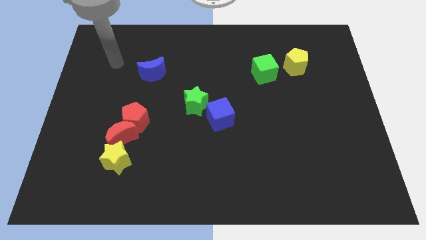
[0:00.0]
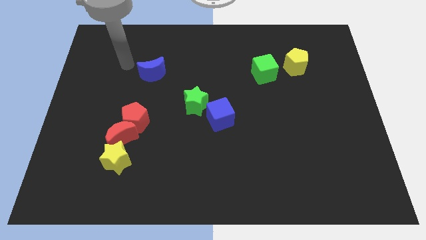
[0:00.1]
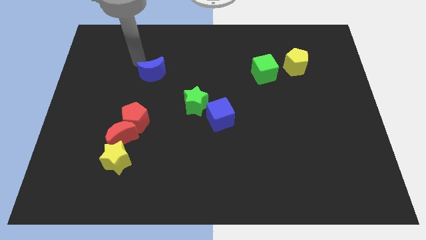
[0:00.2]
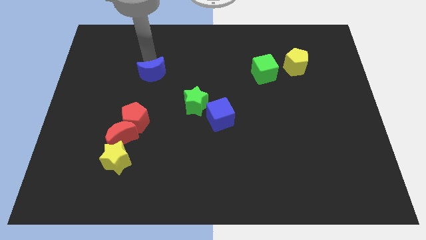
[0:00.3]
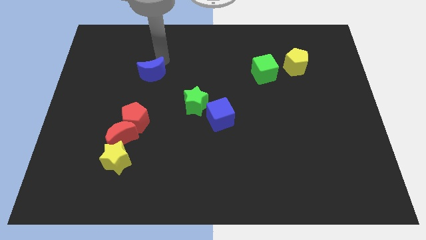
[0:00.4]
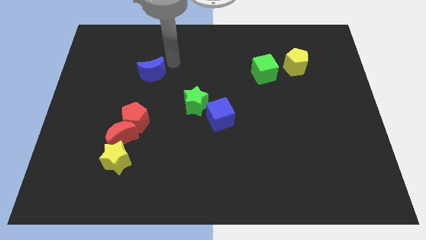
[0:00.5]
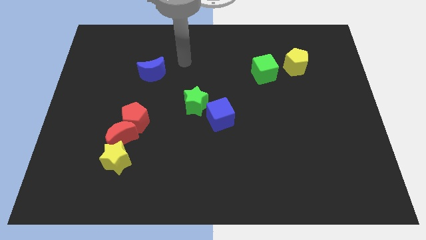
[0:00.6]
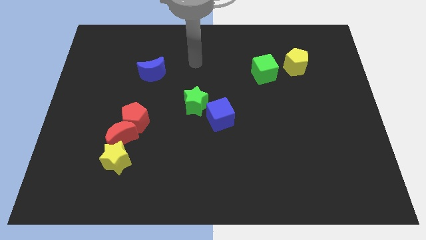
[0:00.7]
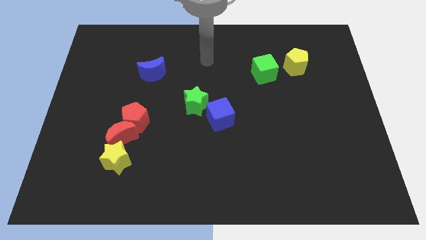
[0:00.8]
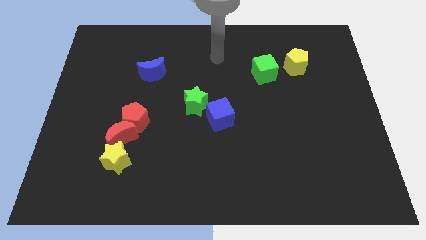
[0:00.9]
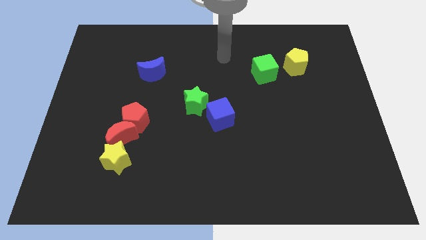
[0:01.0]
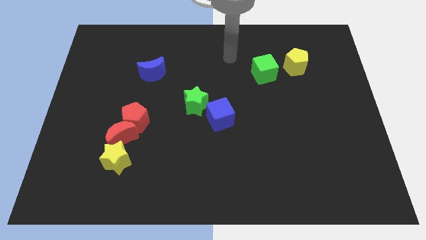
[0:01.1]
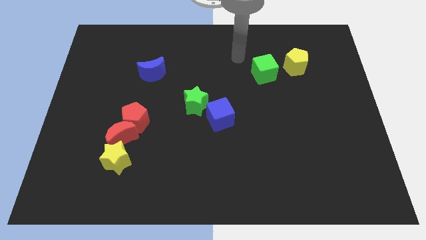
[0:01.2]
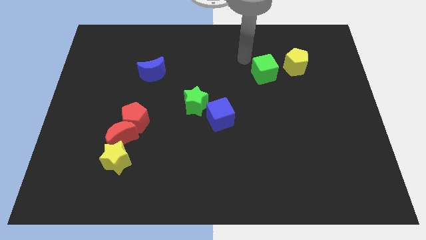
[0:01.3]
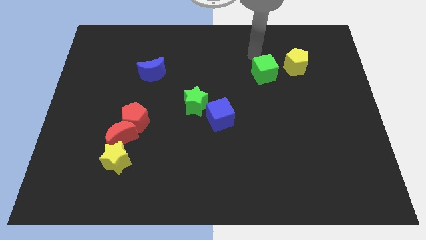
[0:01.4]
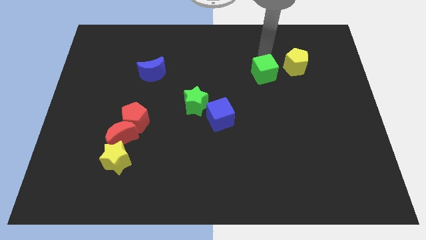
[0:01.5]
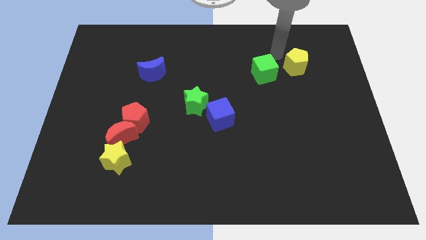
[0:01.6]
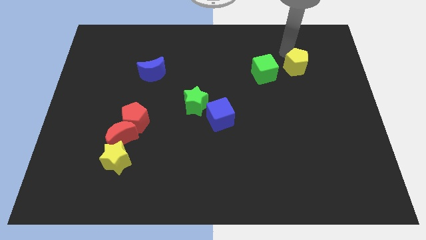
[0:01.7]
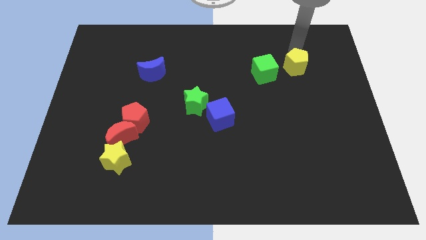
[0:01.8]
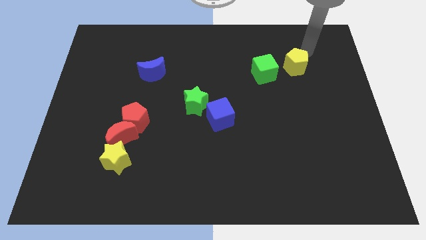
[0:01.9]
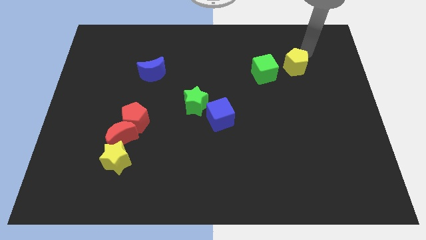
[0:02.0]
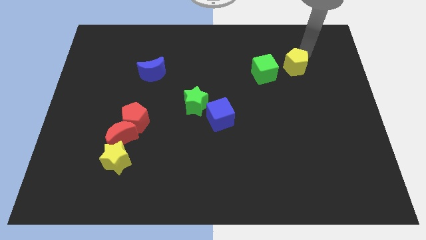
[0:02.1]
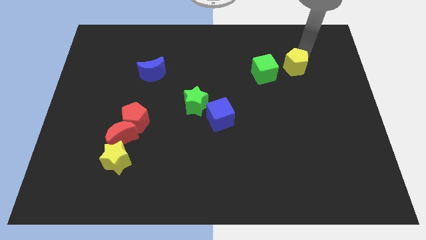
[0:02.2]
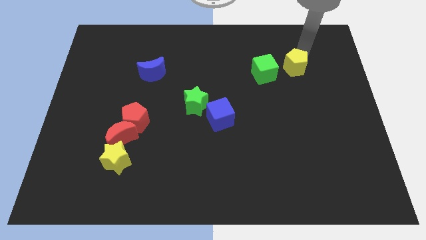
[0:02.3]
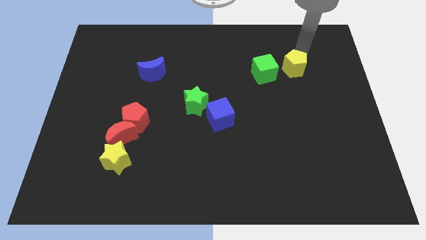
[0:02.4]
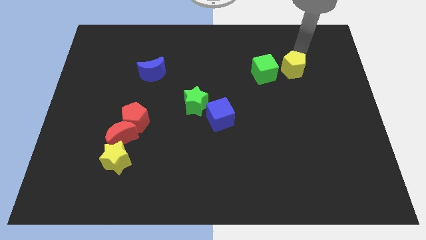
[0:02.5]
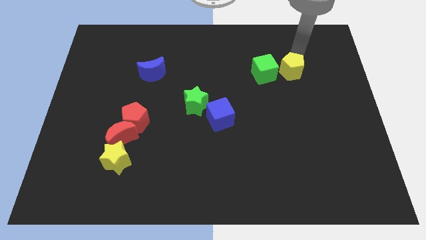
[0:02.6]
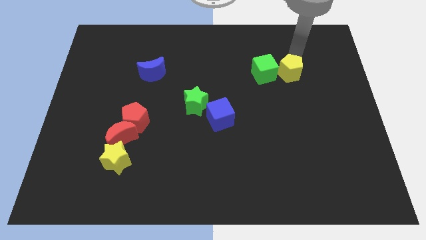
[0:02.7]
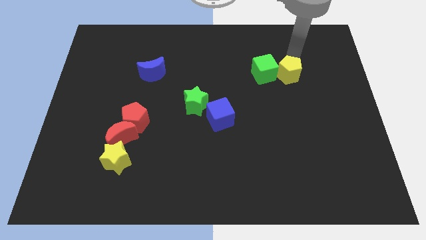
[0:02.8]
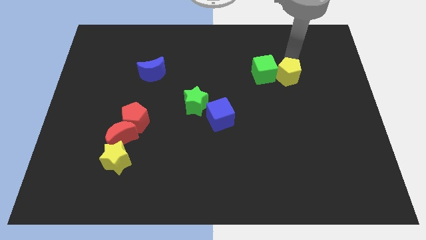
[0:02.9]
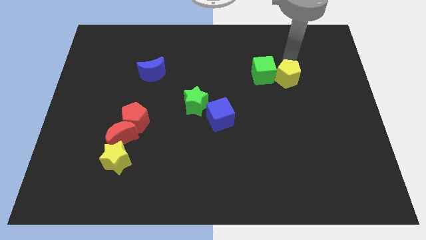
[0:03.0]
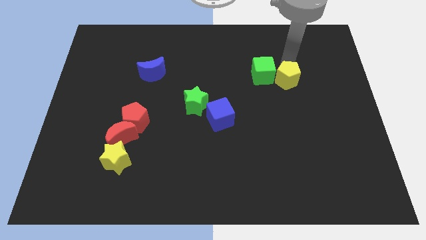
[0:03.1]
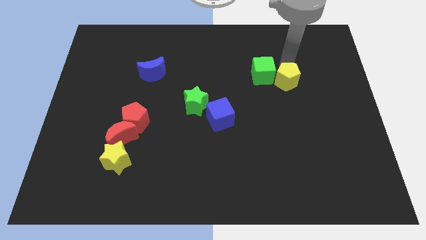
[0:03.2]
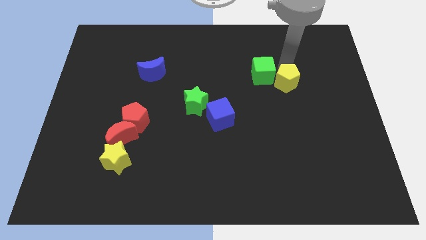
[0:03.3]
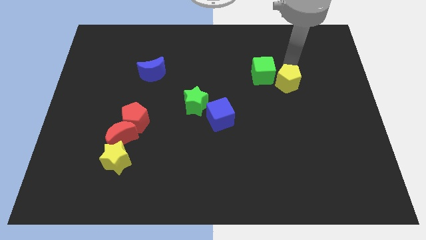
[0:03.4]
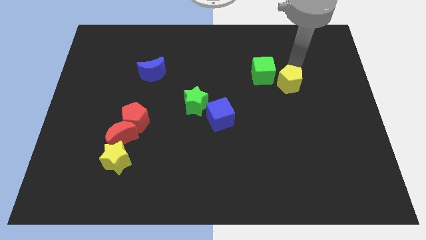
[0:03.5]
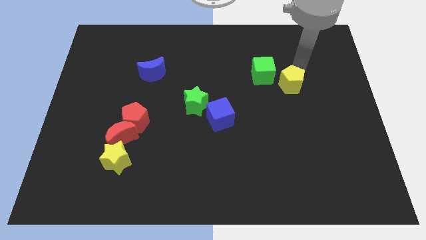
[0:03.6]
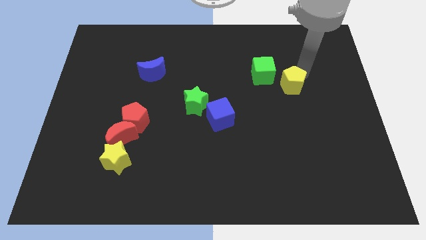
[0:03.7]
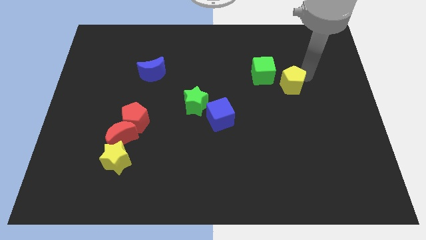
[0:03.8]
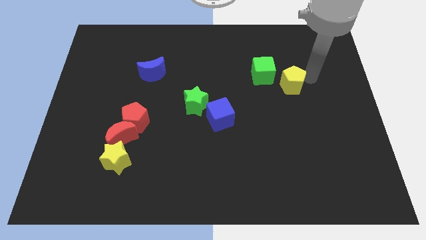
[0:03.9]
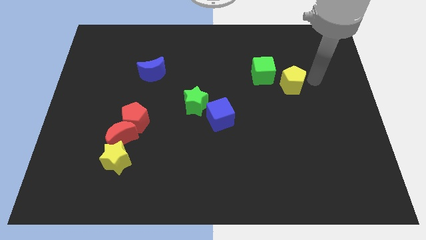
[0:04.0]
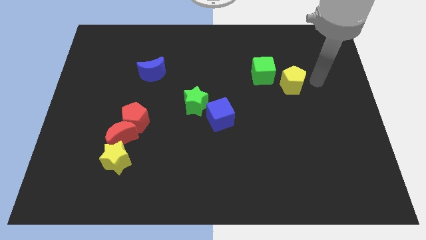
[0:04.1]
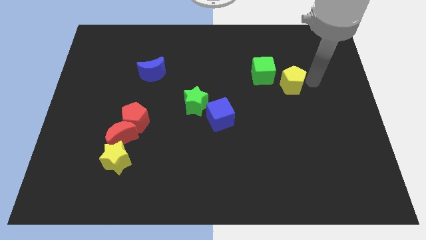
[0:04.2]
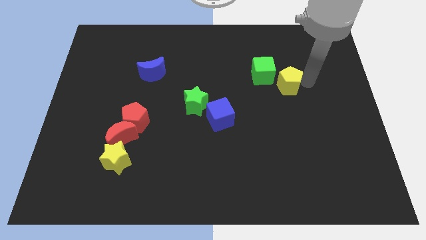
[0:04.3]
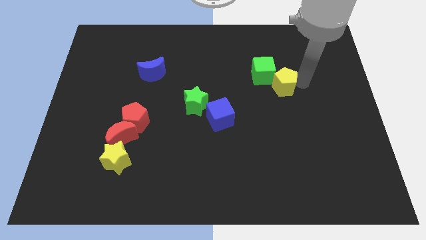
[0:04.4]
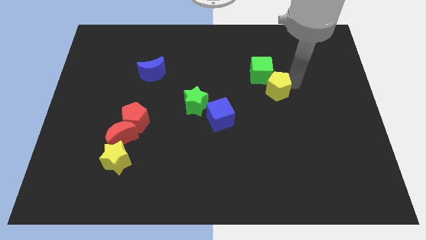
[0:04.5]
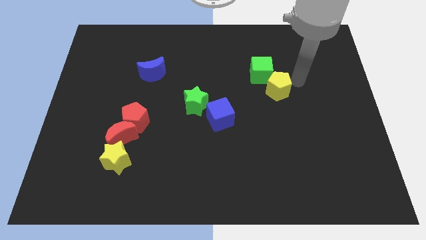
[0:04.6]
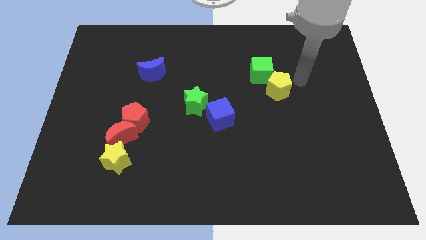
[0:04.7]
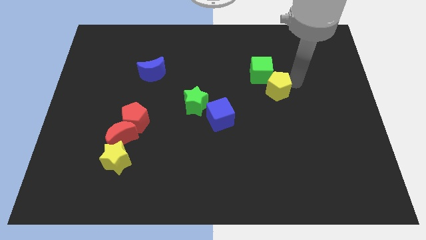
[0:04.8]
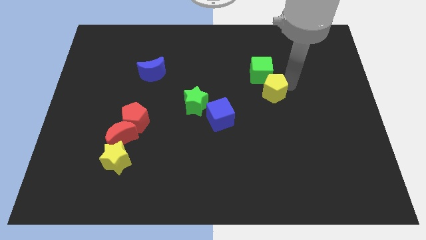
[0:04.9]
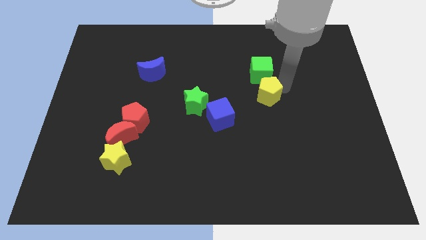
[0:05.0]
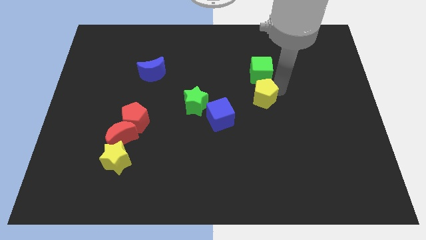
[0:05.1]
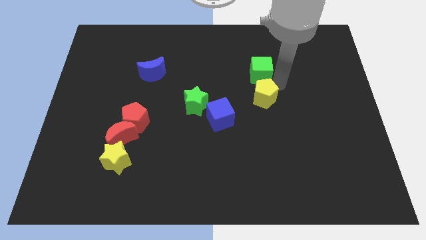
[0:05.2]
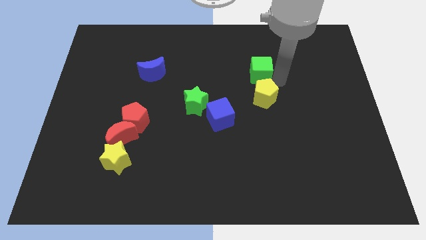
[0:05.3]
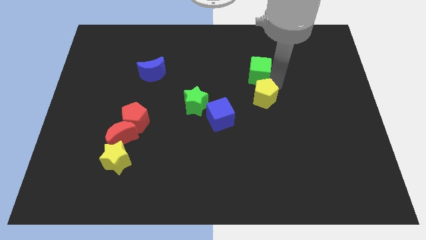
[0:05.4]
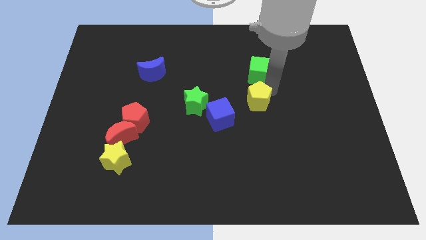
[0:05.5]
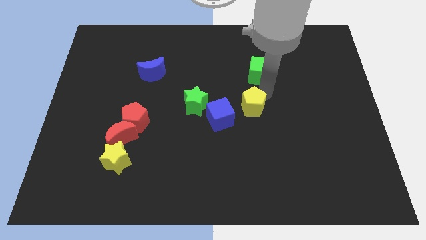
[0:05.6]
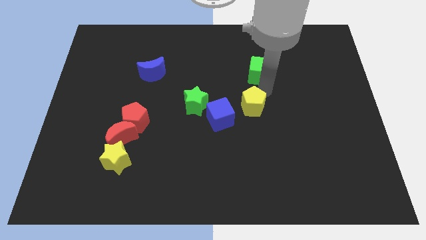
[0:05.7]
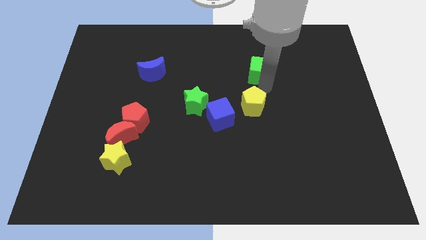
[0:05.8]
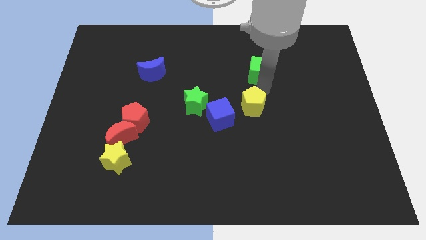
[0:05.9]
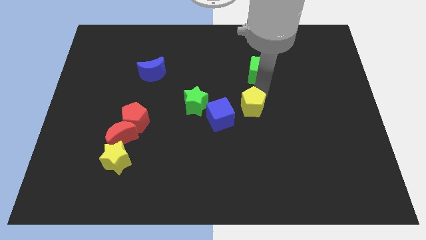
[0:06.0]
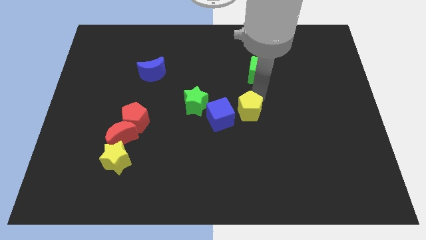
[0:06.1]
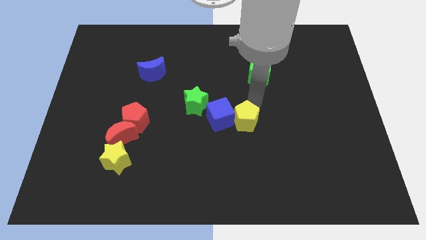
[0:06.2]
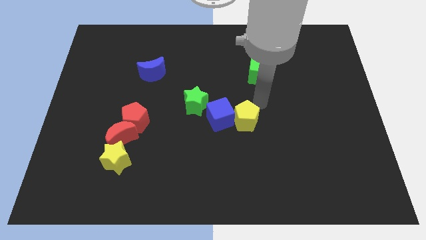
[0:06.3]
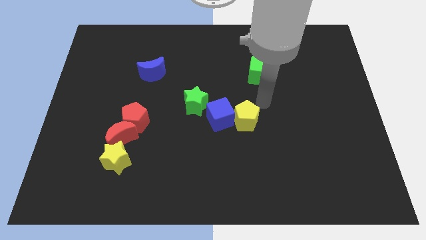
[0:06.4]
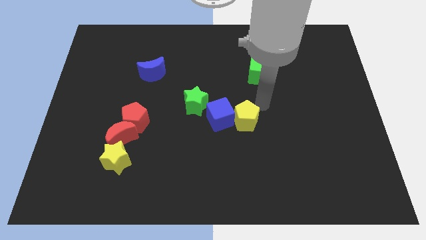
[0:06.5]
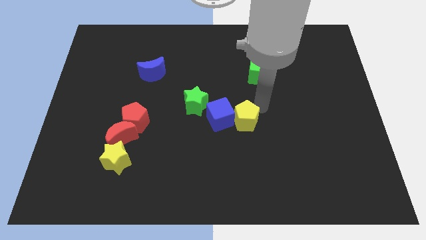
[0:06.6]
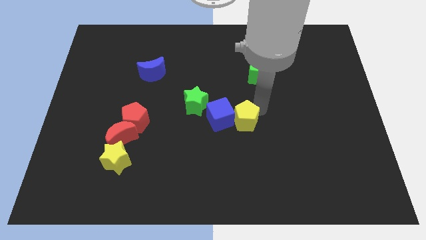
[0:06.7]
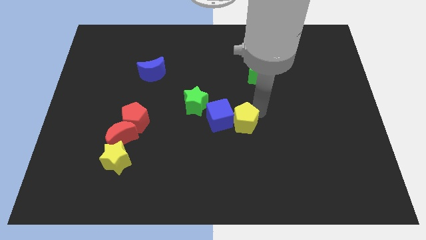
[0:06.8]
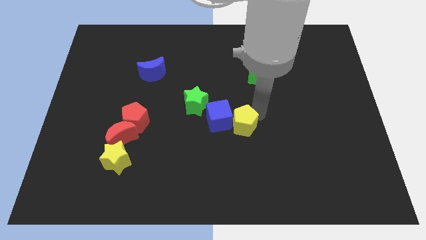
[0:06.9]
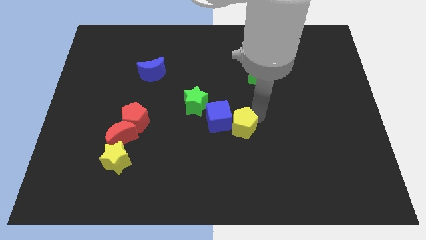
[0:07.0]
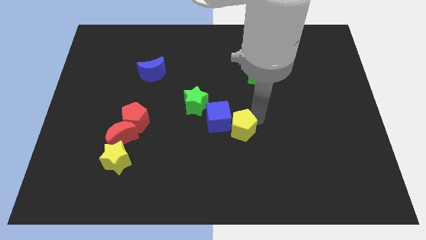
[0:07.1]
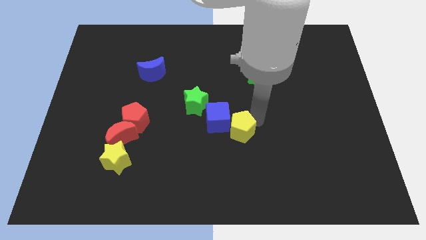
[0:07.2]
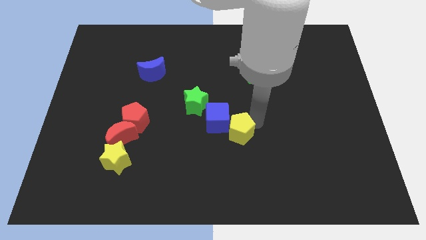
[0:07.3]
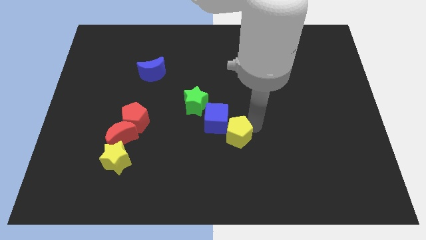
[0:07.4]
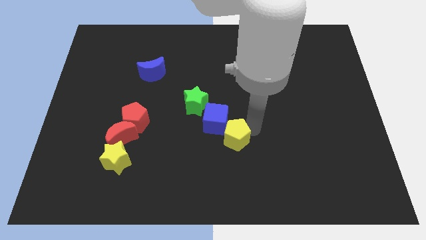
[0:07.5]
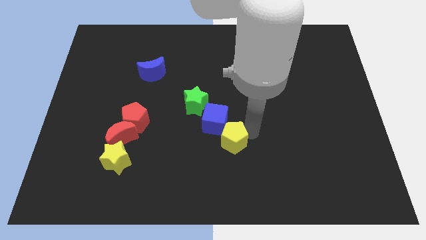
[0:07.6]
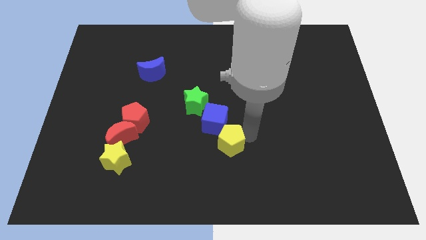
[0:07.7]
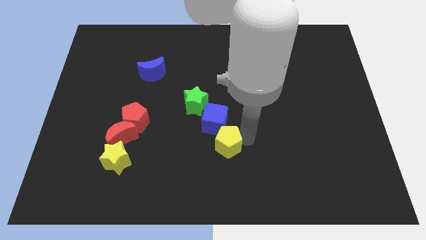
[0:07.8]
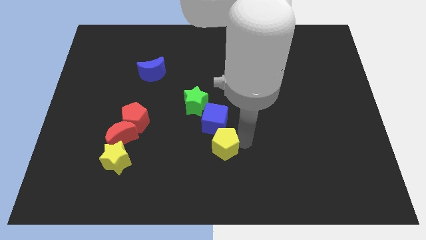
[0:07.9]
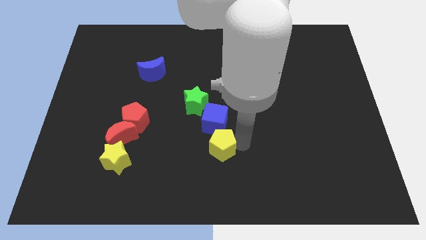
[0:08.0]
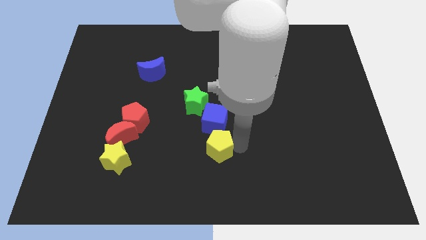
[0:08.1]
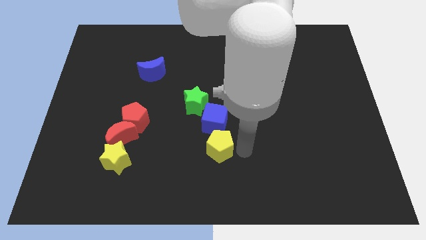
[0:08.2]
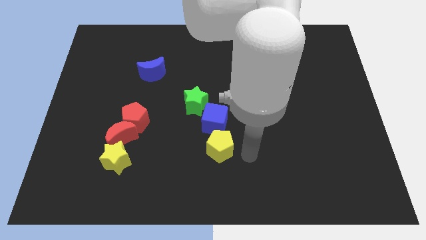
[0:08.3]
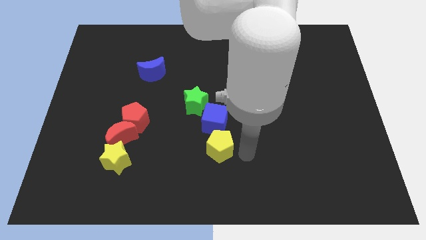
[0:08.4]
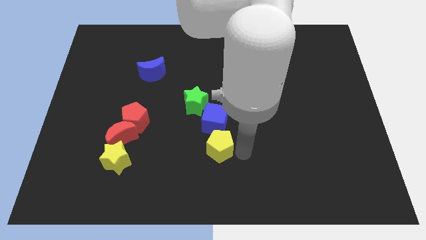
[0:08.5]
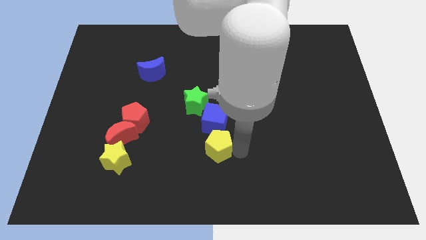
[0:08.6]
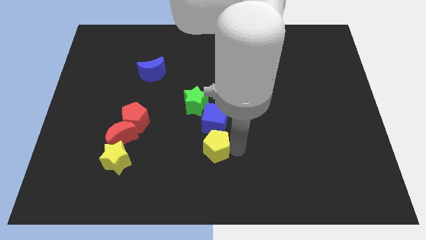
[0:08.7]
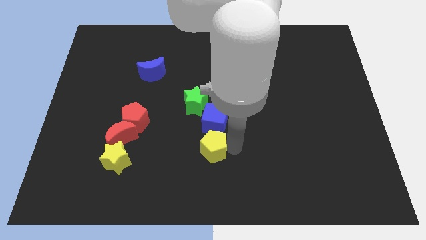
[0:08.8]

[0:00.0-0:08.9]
put the yellow pentagon diagonally down and to the left of the blue cube
